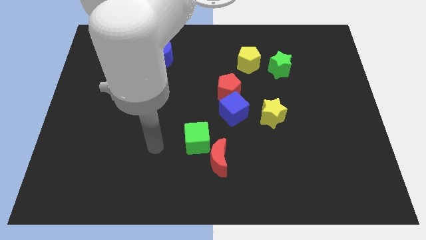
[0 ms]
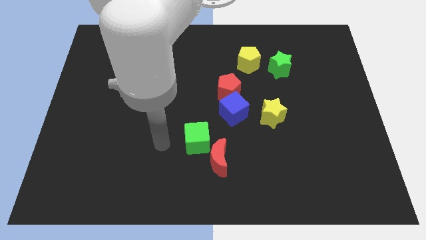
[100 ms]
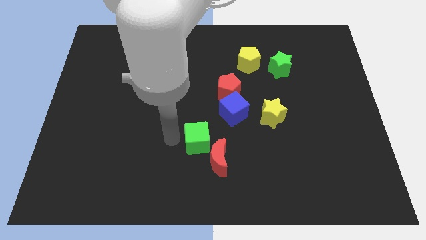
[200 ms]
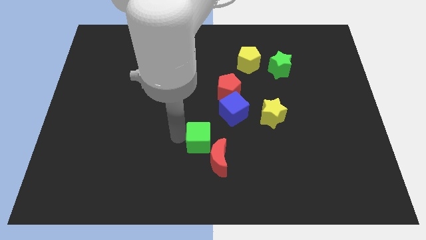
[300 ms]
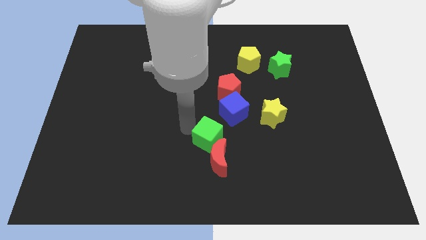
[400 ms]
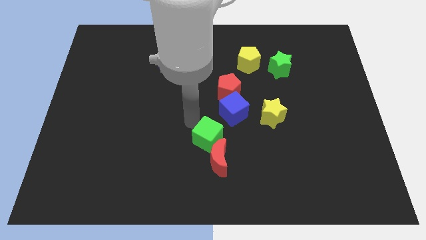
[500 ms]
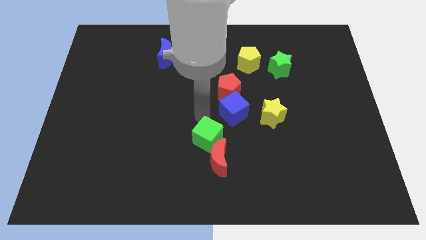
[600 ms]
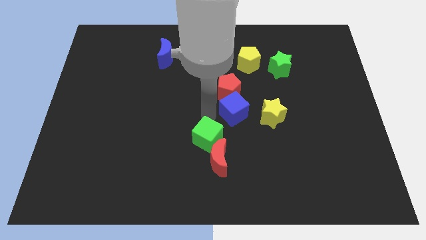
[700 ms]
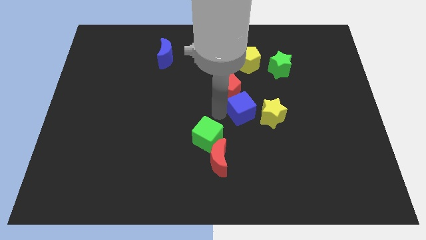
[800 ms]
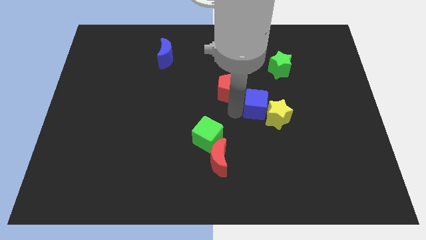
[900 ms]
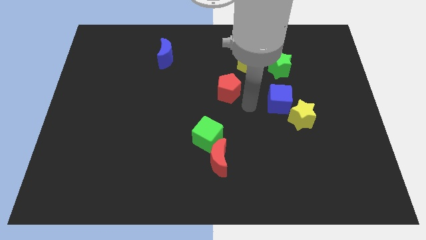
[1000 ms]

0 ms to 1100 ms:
pull the red pentagon apart from the blue cube

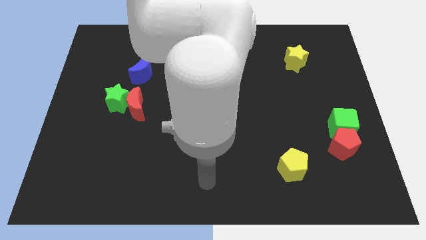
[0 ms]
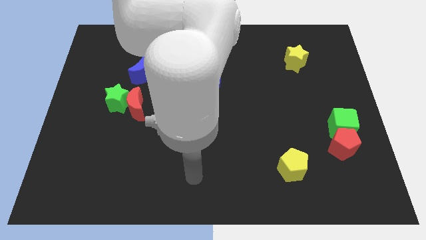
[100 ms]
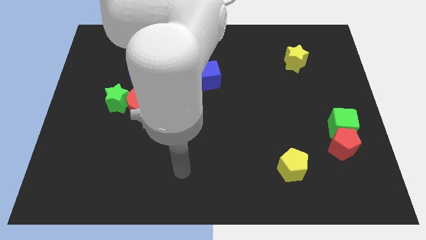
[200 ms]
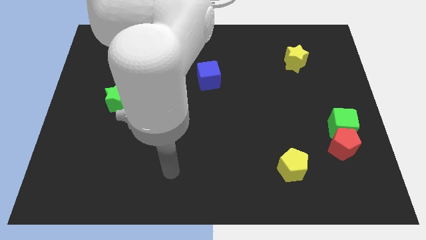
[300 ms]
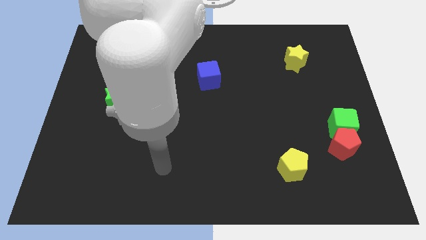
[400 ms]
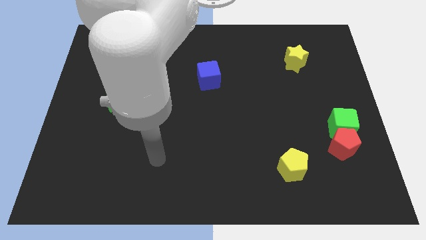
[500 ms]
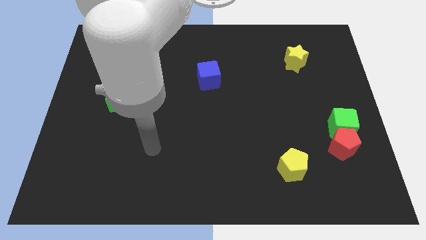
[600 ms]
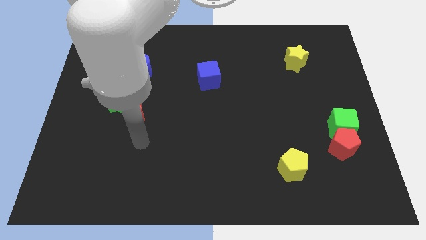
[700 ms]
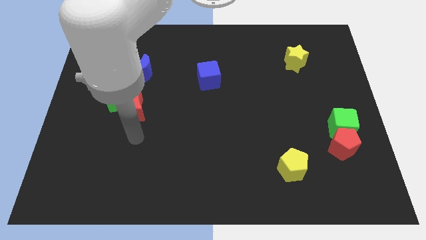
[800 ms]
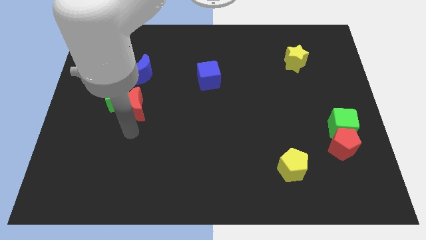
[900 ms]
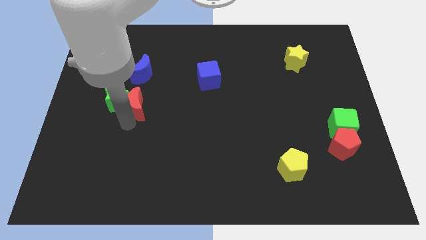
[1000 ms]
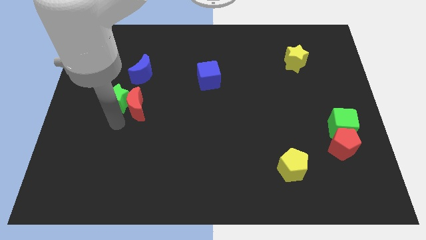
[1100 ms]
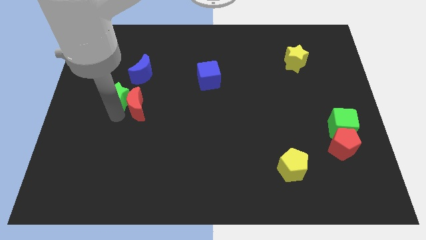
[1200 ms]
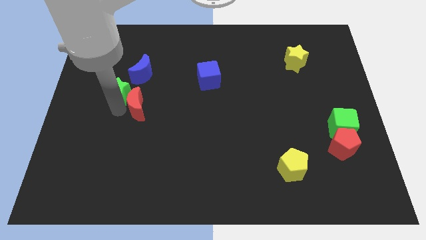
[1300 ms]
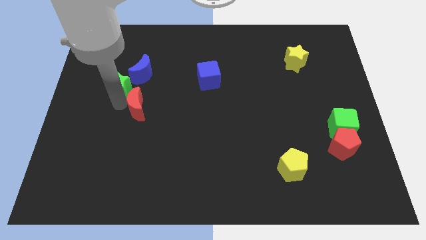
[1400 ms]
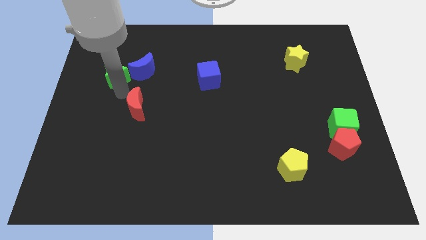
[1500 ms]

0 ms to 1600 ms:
move the red moon away from the green star

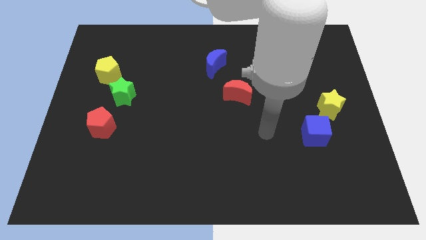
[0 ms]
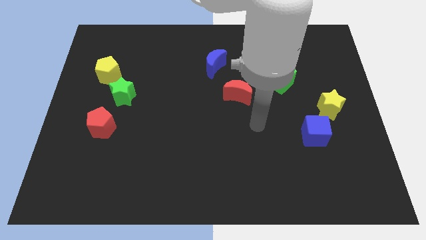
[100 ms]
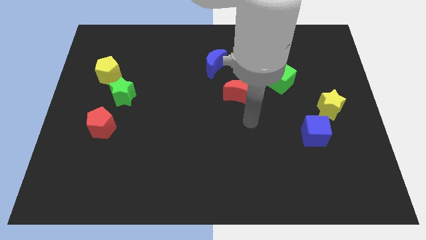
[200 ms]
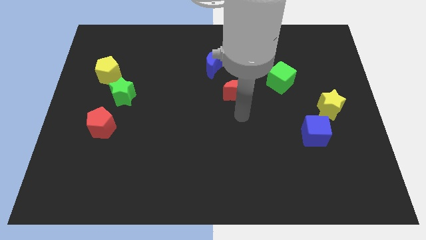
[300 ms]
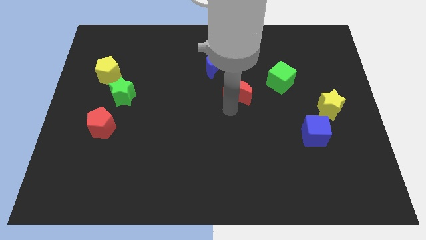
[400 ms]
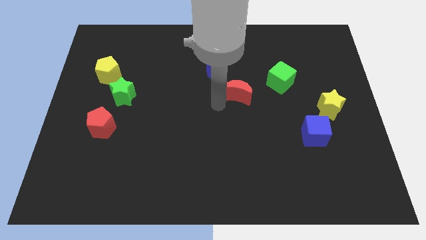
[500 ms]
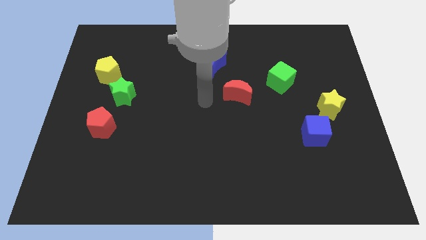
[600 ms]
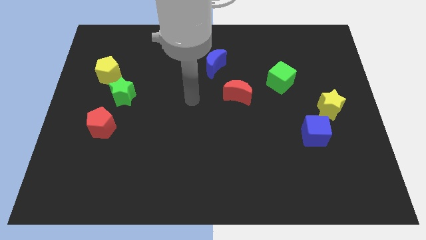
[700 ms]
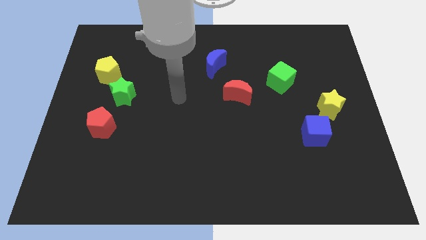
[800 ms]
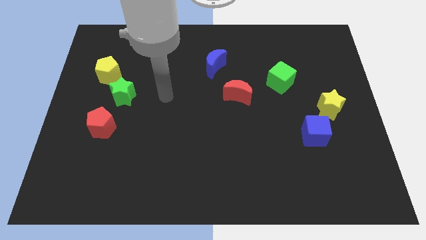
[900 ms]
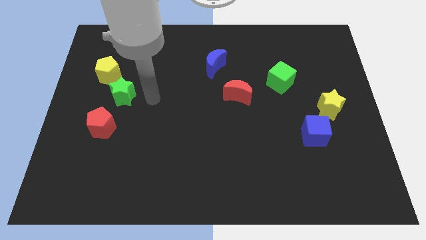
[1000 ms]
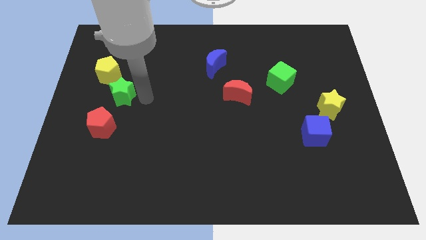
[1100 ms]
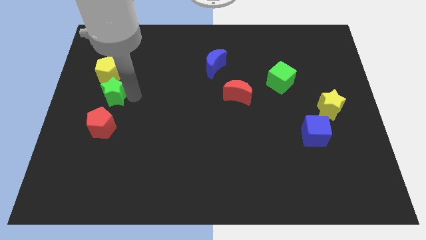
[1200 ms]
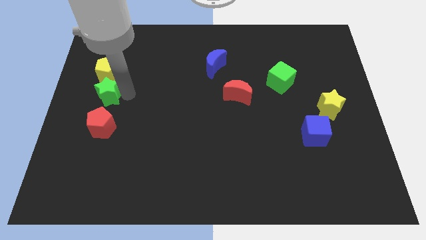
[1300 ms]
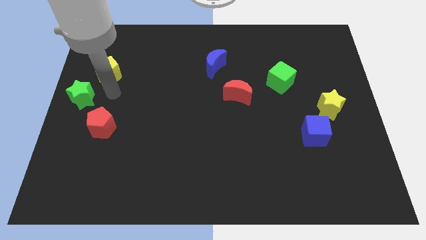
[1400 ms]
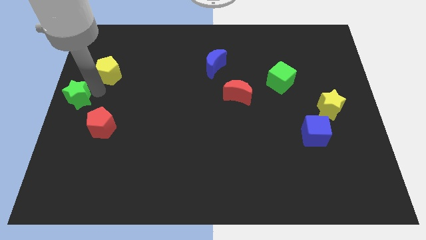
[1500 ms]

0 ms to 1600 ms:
separate the yellow pentagon from the green star

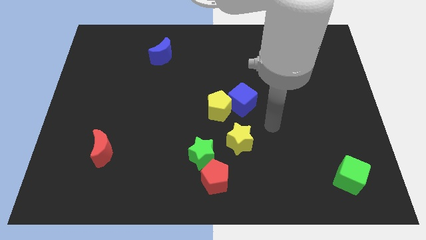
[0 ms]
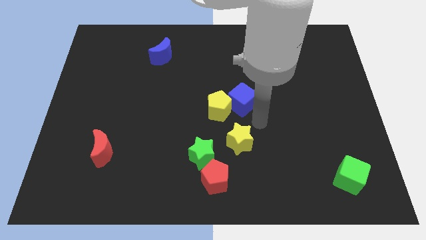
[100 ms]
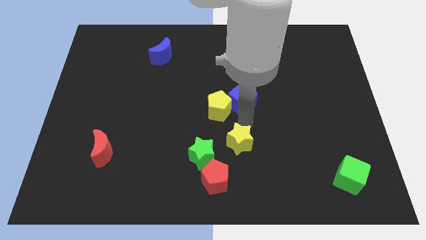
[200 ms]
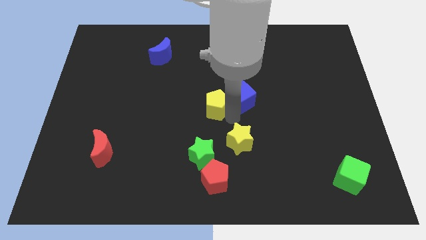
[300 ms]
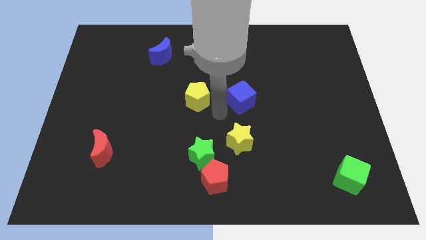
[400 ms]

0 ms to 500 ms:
separate the blue cube from the yellow pentagon

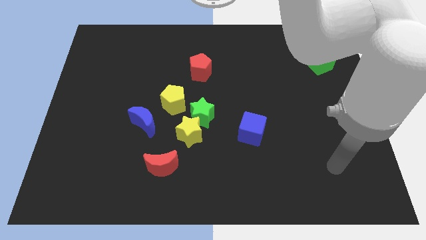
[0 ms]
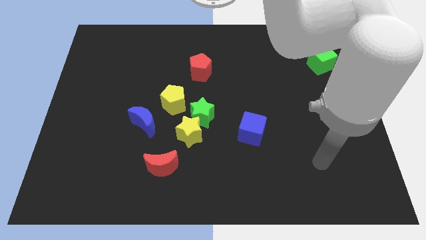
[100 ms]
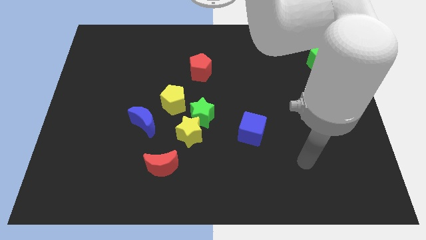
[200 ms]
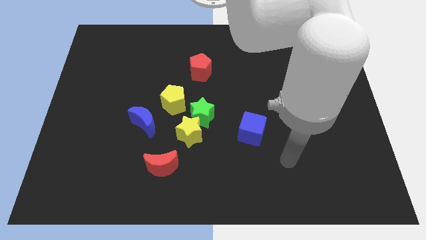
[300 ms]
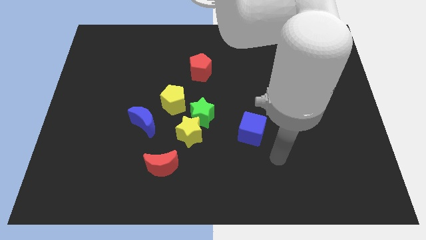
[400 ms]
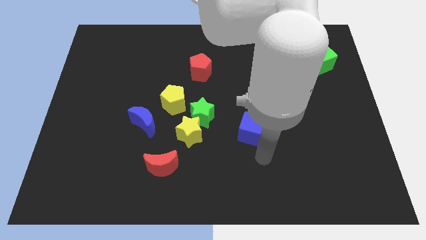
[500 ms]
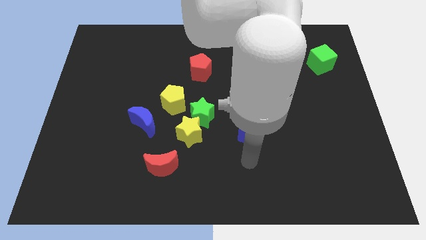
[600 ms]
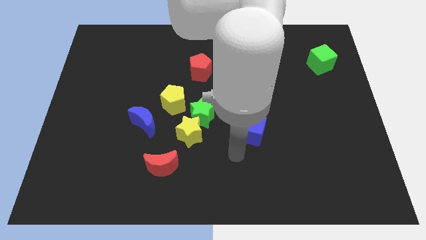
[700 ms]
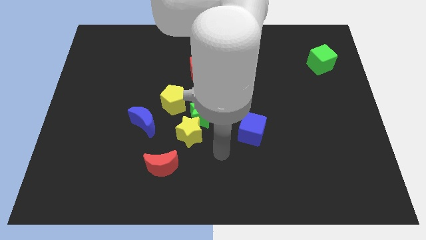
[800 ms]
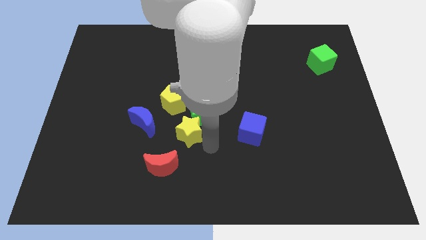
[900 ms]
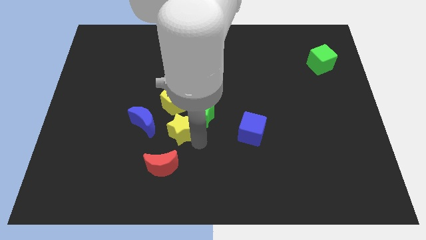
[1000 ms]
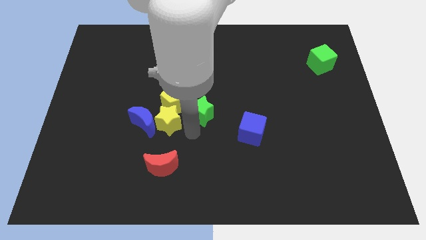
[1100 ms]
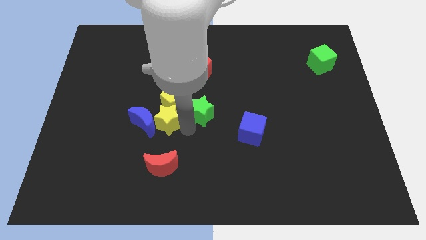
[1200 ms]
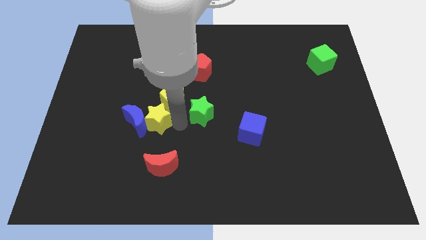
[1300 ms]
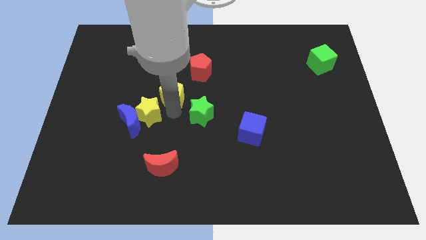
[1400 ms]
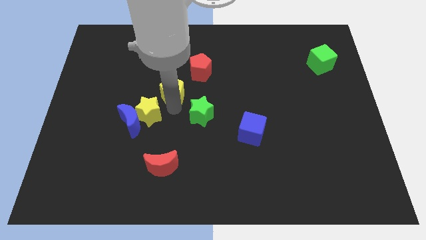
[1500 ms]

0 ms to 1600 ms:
pull the green star apart from the yellow star and yellow pentagon

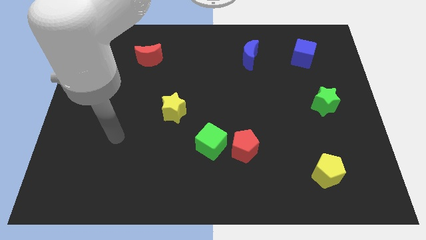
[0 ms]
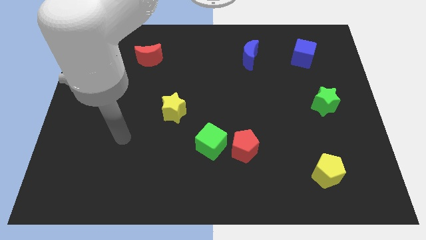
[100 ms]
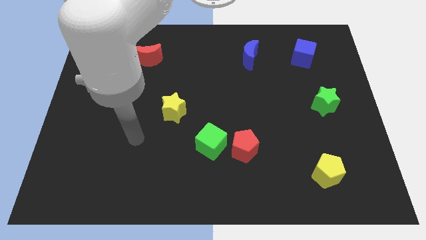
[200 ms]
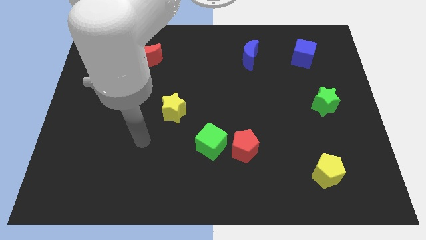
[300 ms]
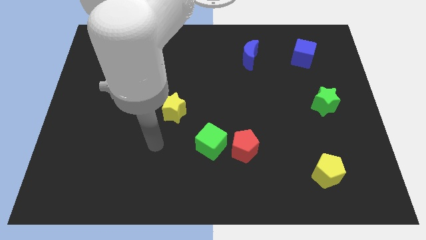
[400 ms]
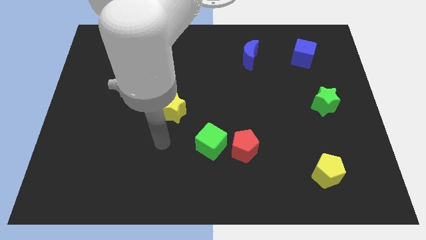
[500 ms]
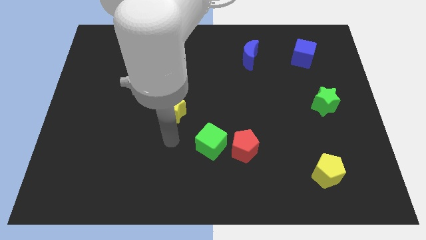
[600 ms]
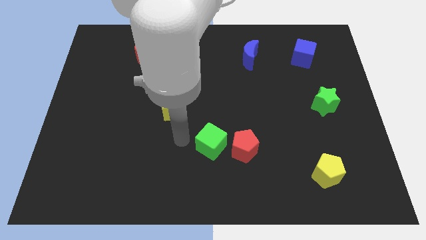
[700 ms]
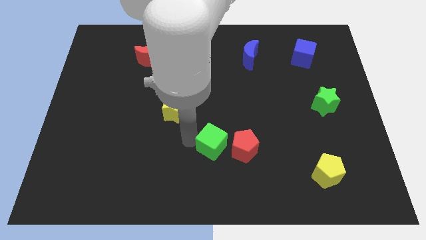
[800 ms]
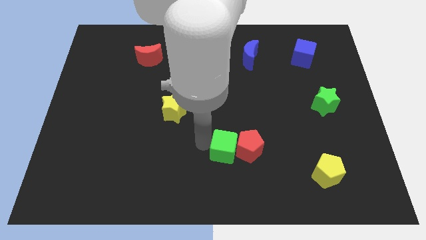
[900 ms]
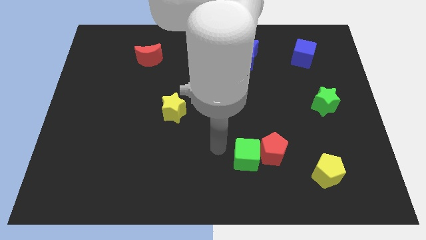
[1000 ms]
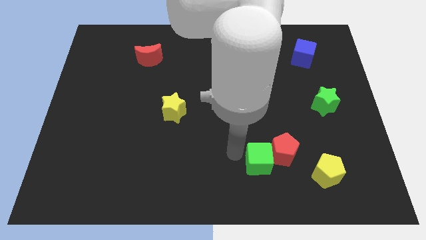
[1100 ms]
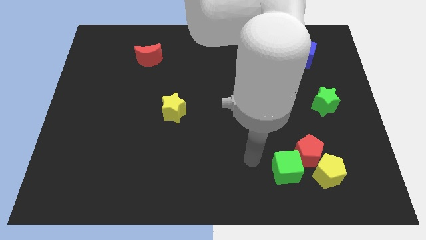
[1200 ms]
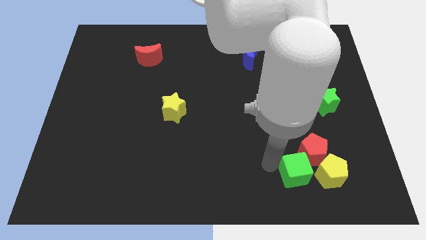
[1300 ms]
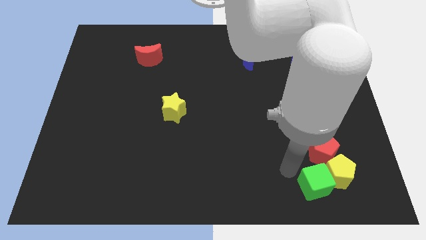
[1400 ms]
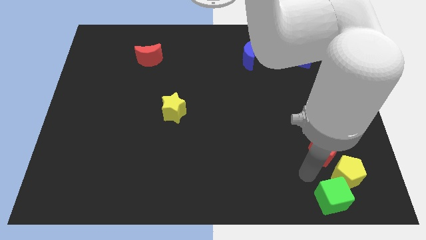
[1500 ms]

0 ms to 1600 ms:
pull the red pentagon apart from the green cube

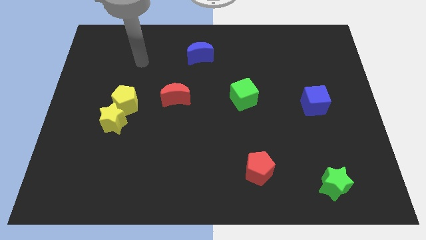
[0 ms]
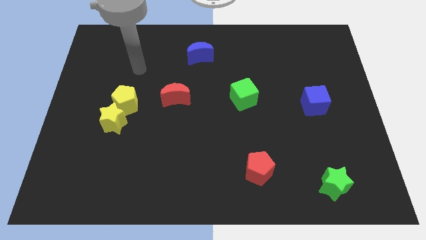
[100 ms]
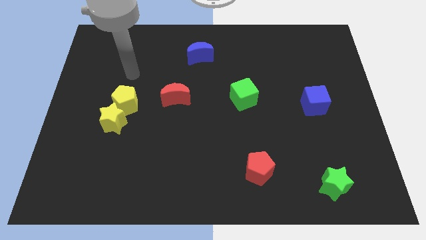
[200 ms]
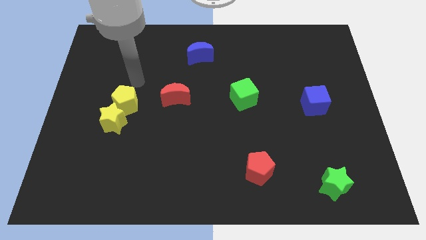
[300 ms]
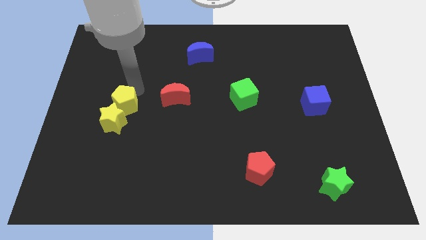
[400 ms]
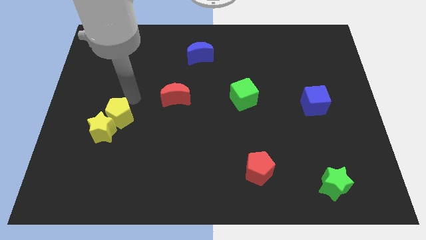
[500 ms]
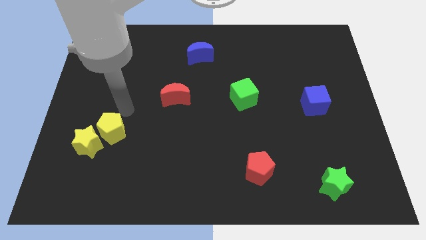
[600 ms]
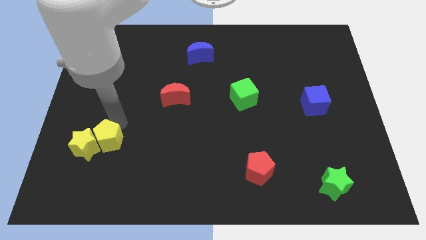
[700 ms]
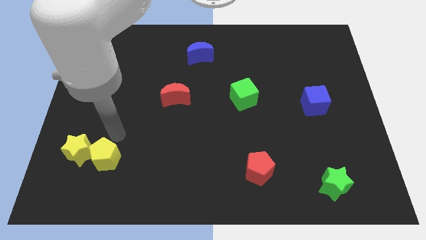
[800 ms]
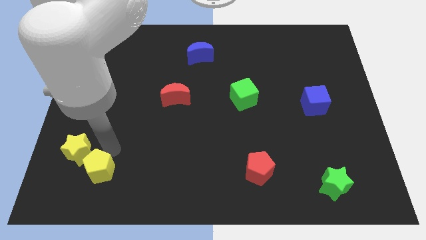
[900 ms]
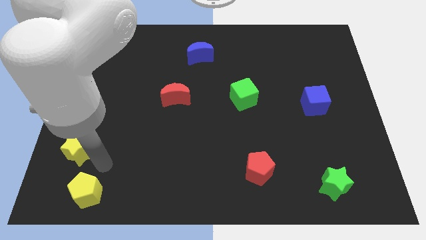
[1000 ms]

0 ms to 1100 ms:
separate the yellow star from the yellow pentagon
